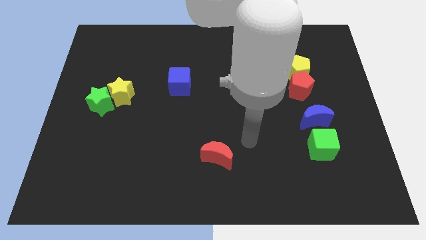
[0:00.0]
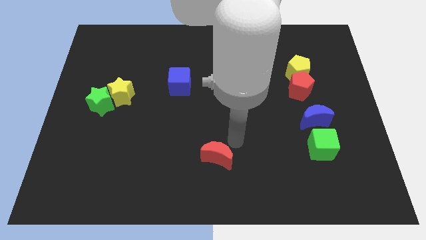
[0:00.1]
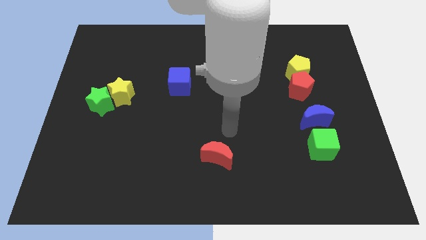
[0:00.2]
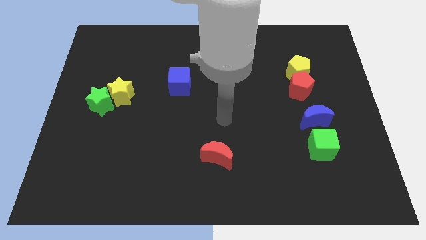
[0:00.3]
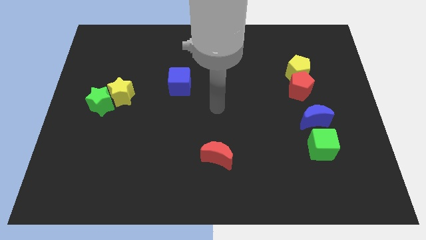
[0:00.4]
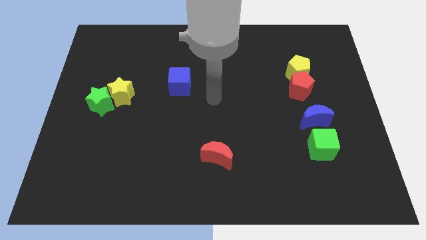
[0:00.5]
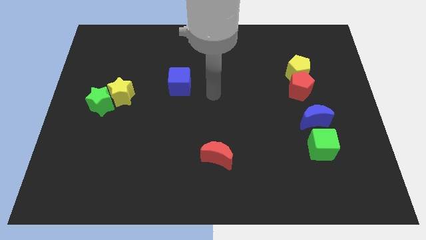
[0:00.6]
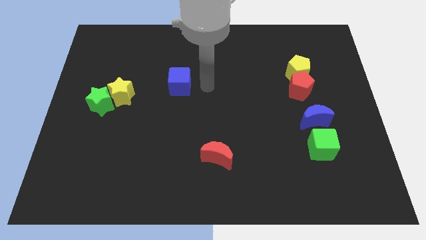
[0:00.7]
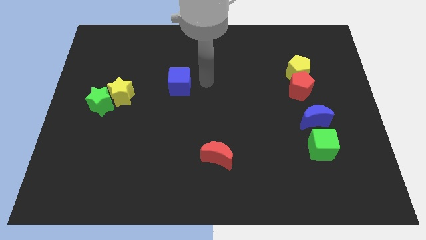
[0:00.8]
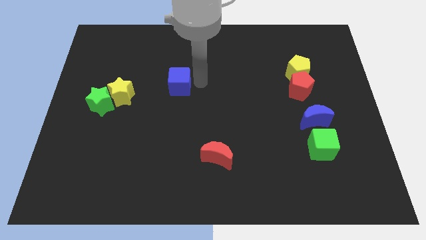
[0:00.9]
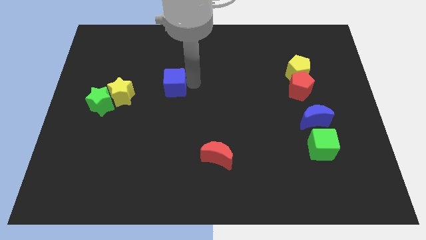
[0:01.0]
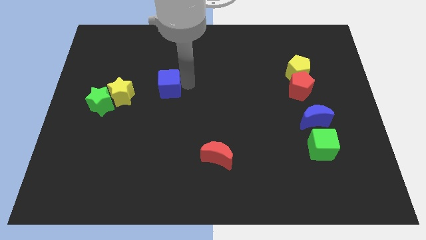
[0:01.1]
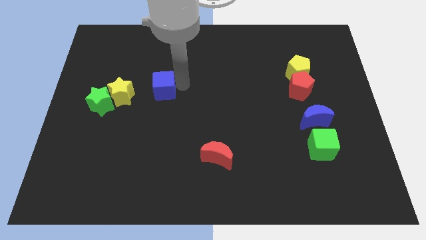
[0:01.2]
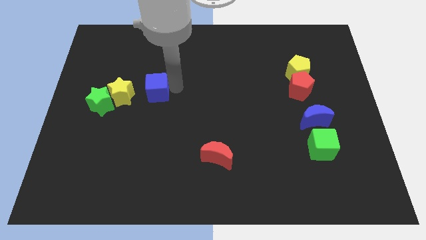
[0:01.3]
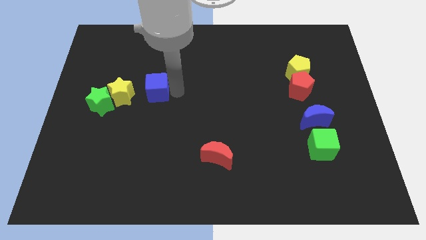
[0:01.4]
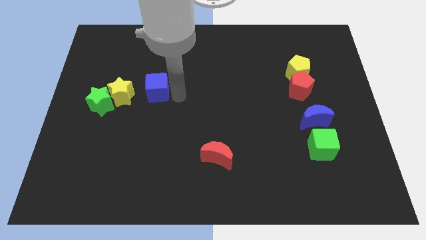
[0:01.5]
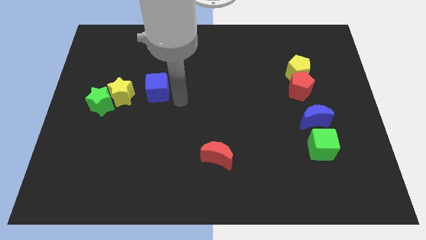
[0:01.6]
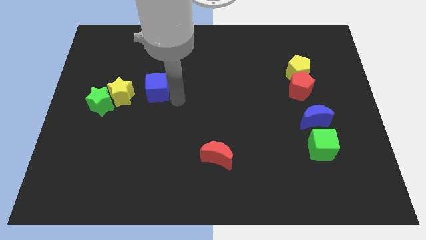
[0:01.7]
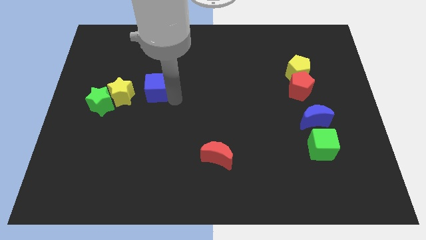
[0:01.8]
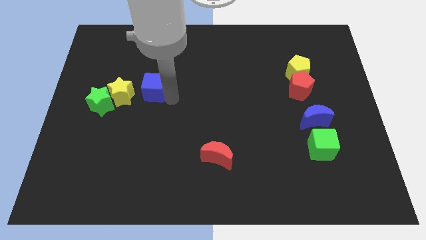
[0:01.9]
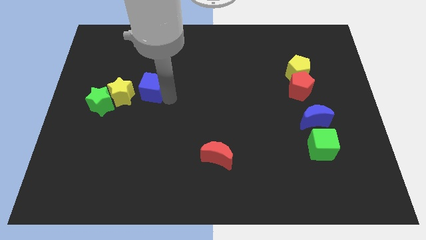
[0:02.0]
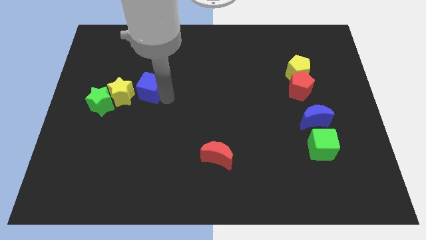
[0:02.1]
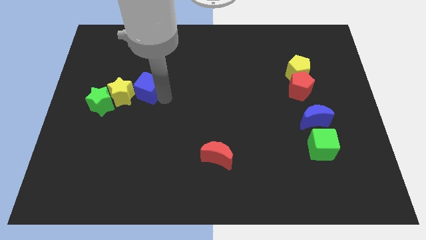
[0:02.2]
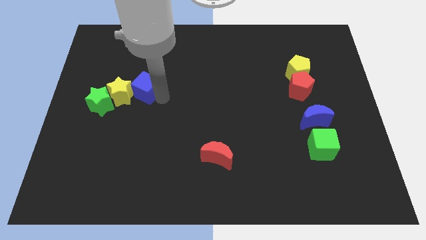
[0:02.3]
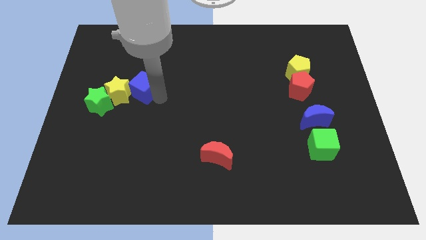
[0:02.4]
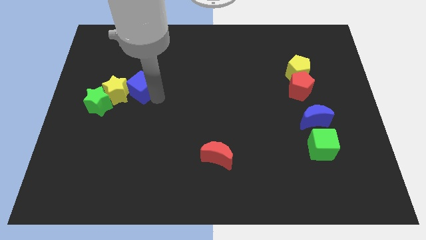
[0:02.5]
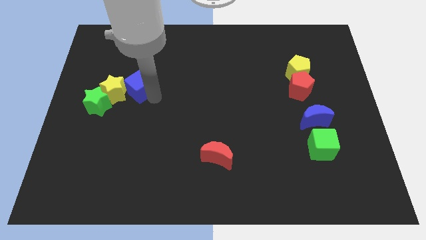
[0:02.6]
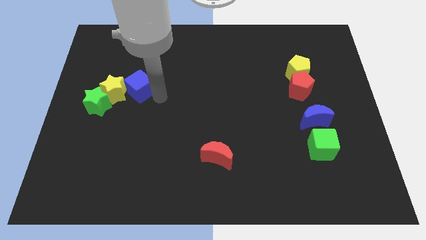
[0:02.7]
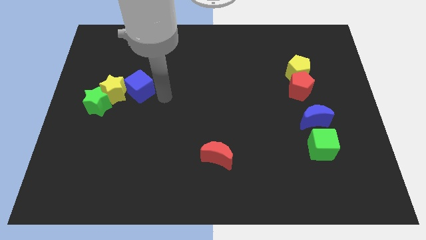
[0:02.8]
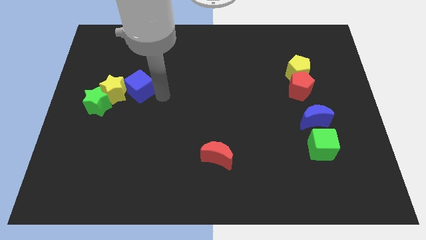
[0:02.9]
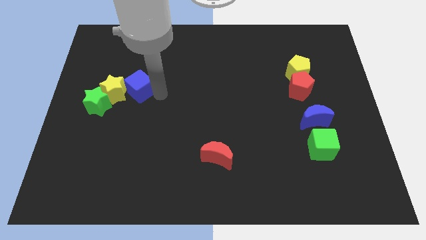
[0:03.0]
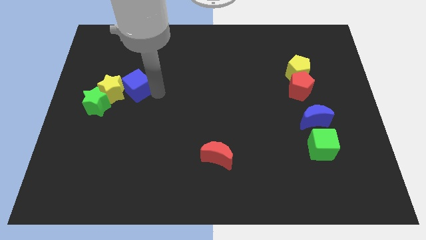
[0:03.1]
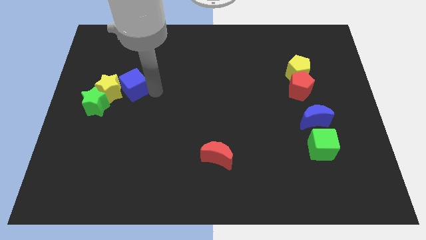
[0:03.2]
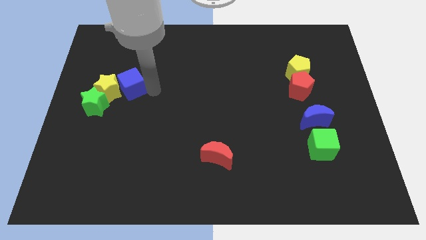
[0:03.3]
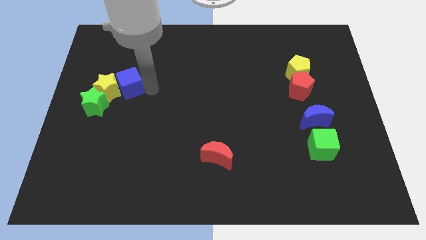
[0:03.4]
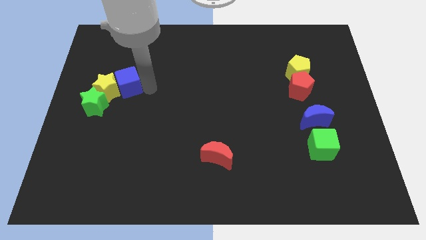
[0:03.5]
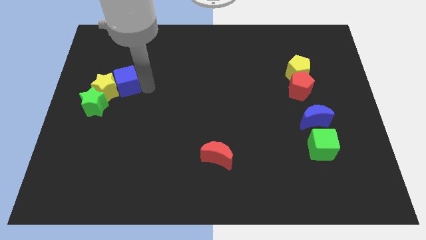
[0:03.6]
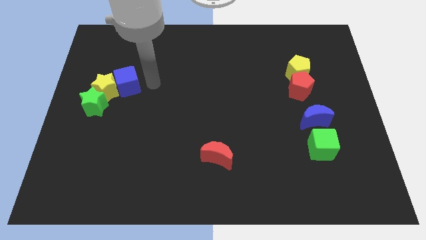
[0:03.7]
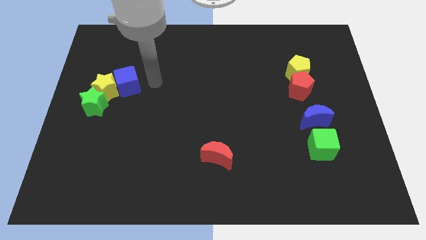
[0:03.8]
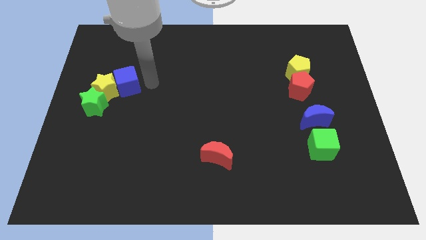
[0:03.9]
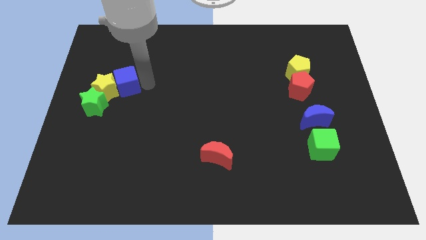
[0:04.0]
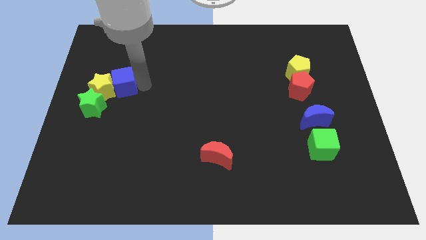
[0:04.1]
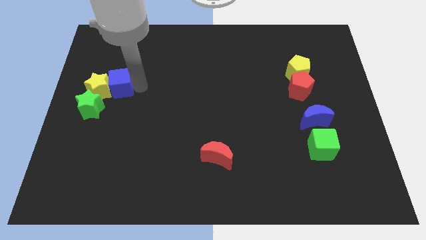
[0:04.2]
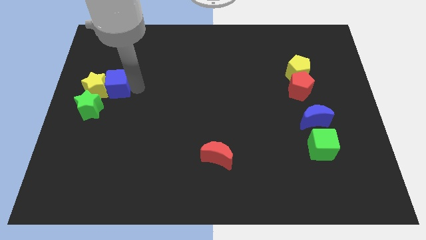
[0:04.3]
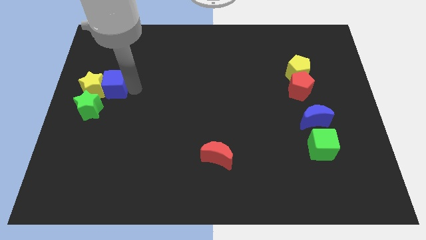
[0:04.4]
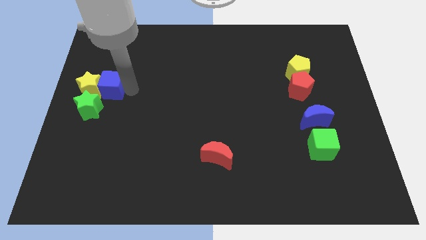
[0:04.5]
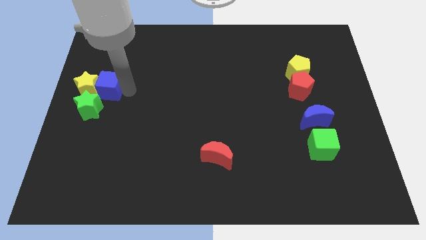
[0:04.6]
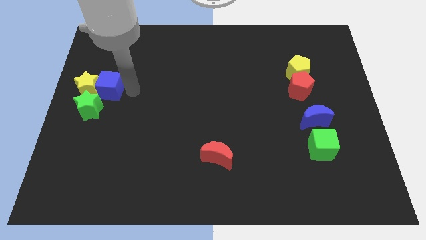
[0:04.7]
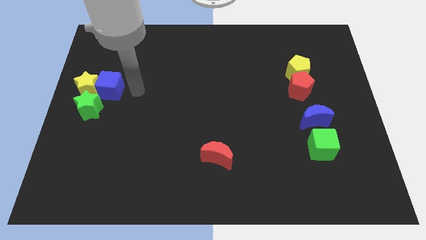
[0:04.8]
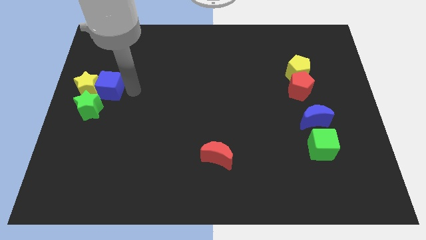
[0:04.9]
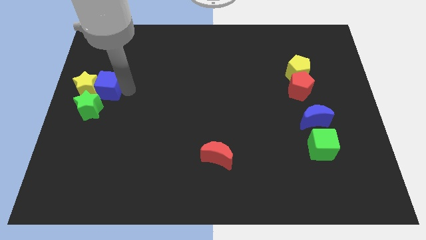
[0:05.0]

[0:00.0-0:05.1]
put the blue cube to the left side
